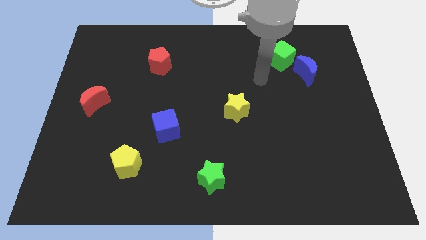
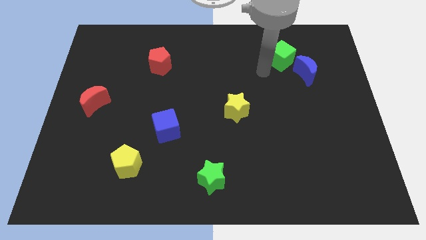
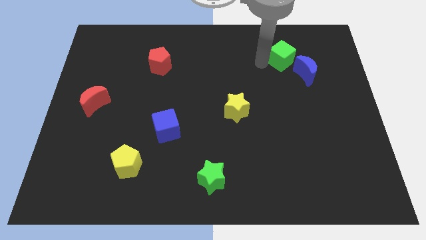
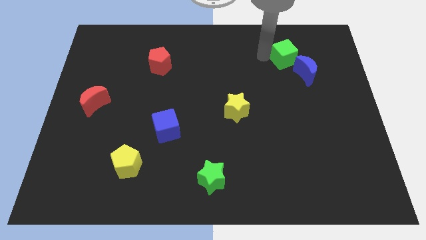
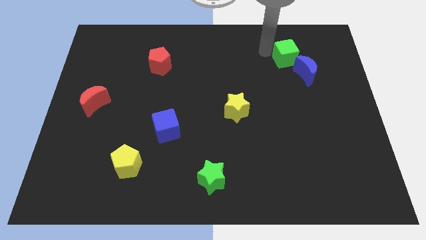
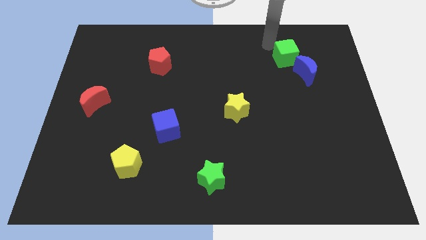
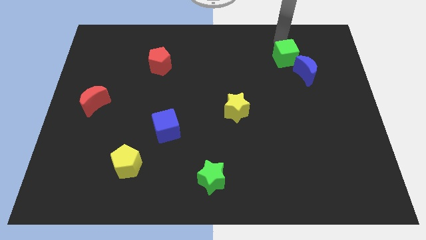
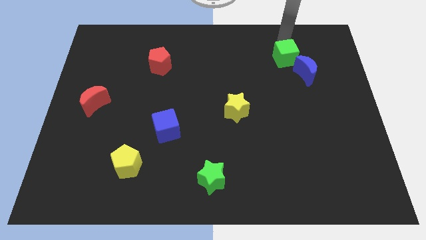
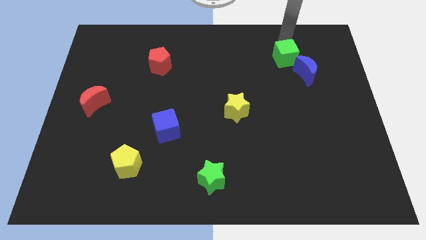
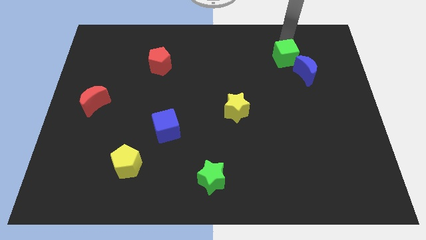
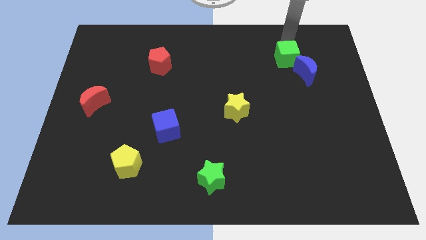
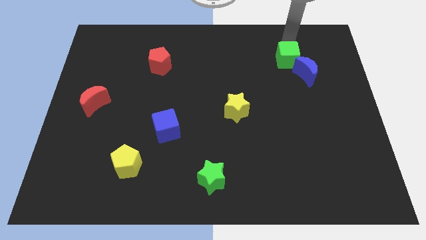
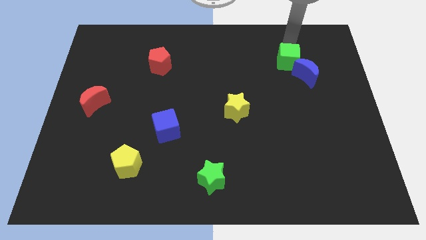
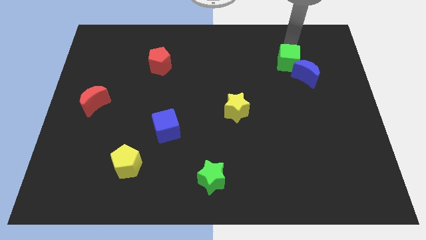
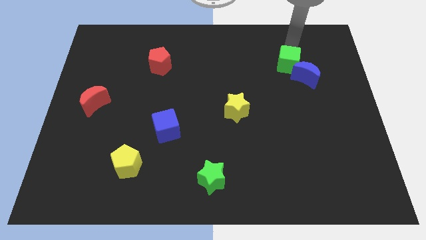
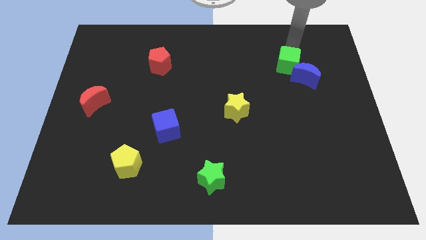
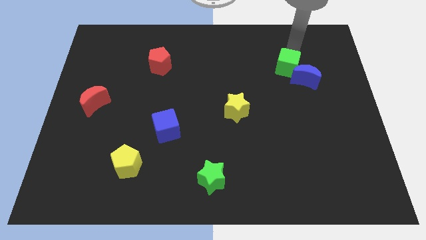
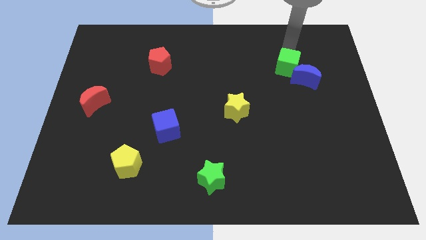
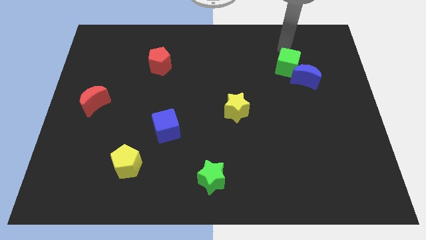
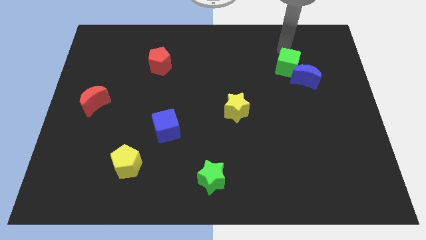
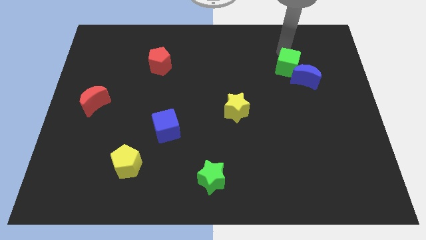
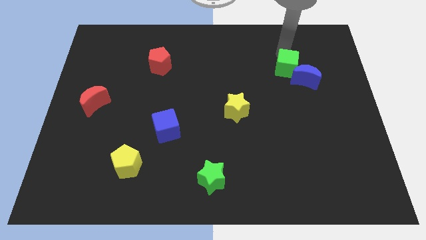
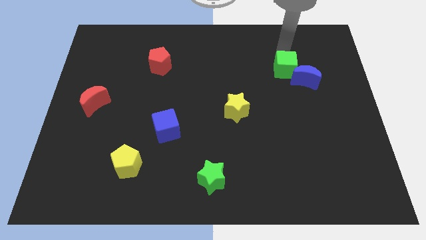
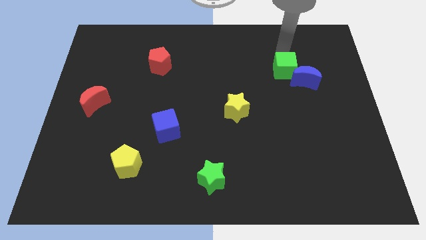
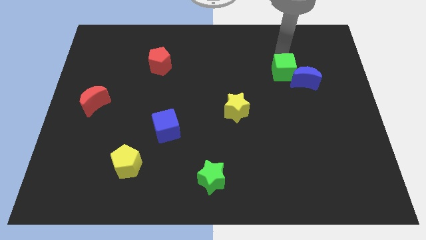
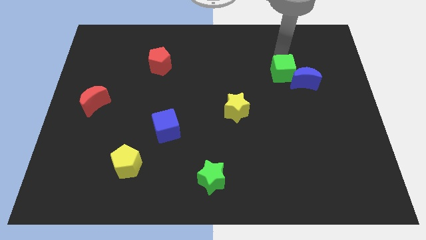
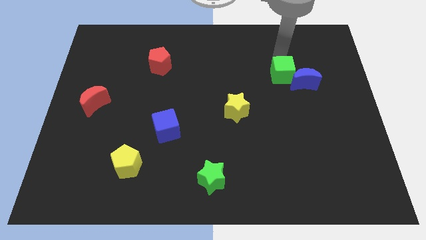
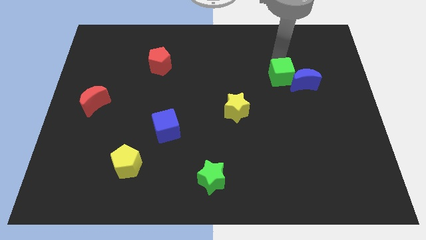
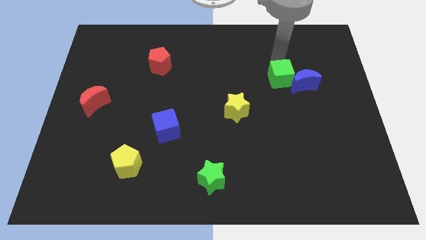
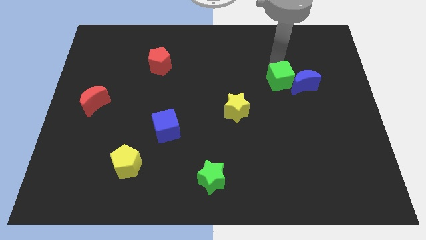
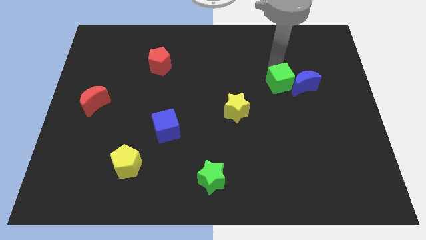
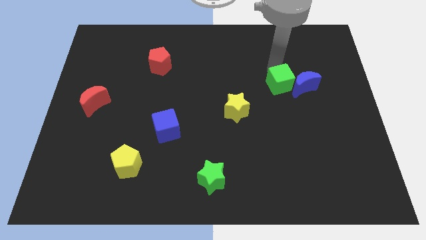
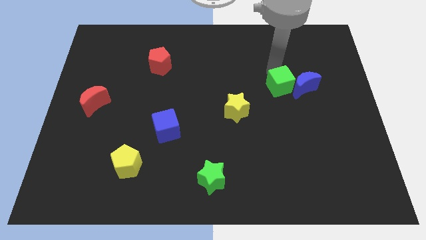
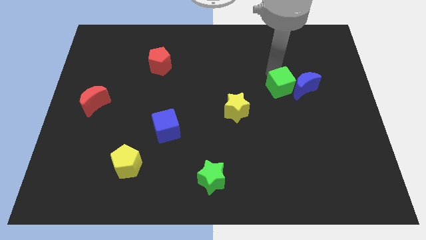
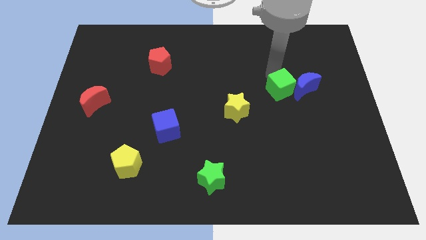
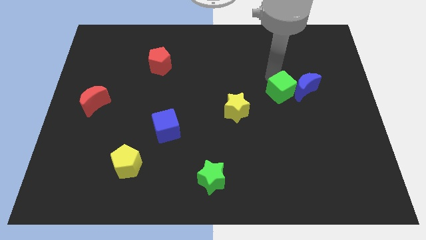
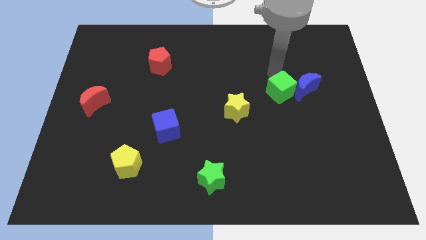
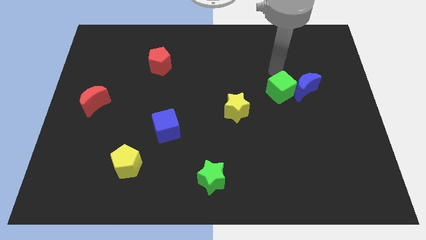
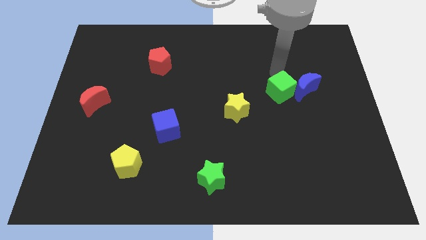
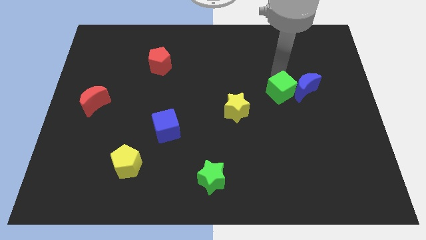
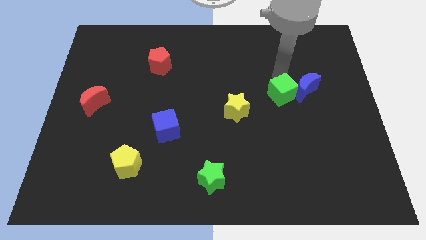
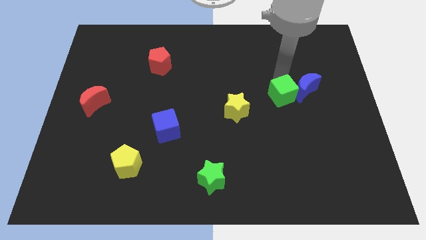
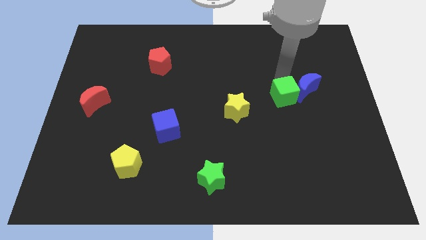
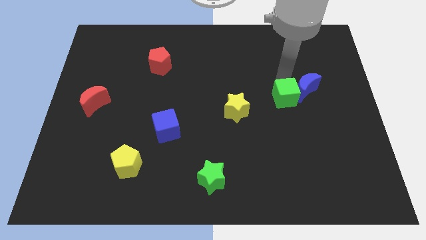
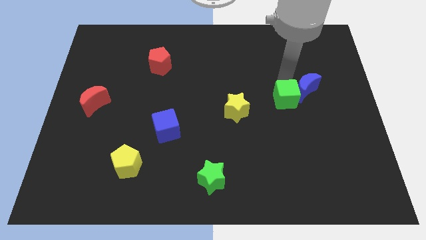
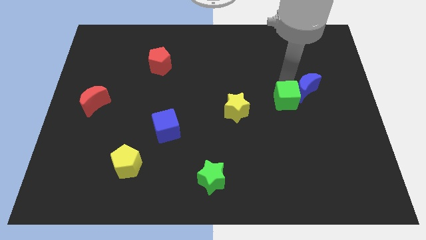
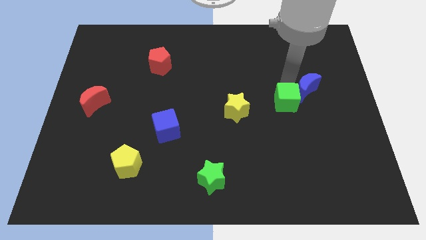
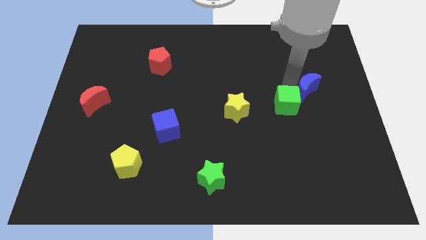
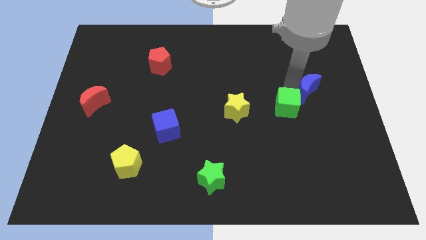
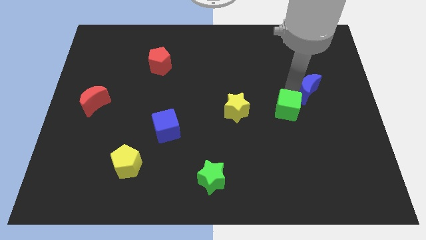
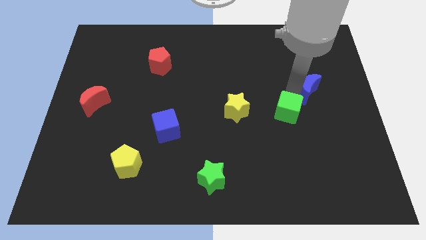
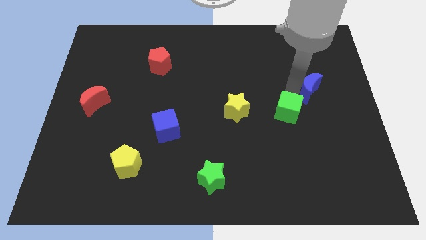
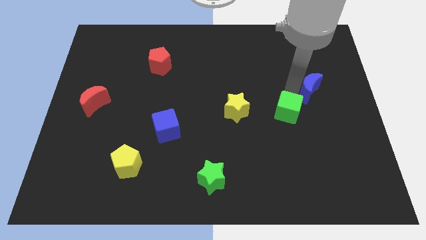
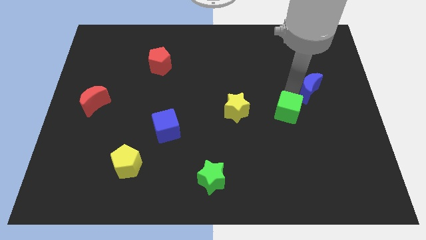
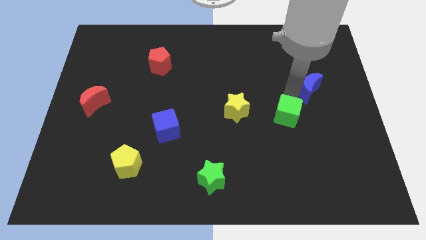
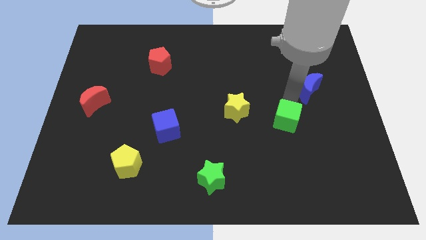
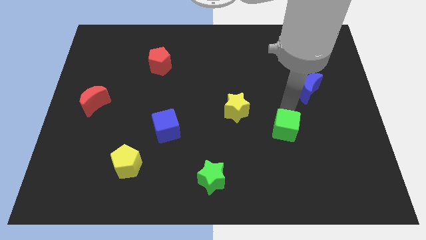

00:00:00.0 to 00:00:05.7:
move the green cube down

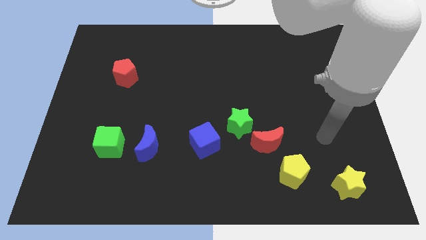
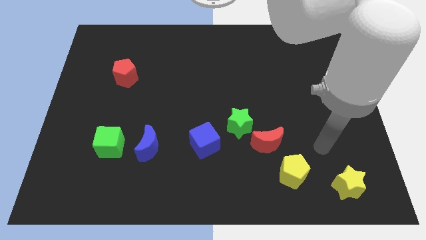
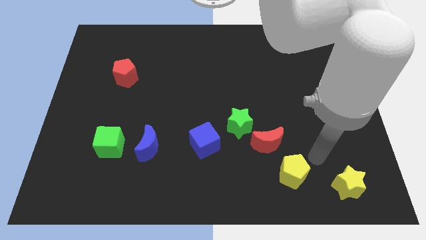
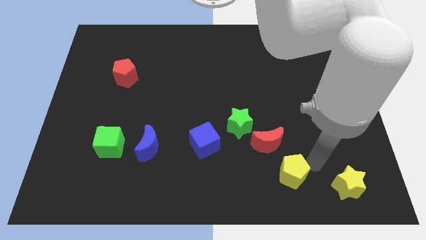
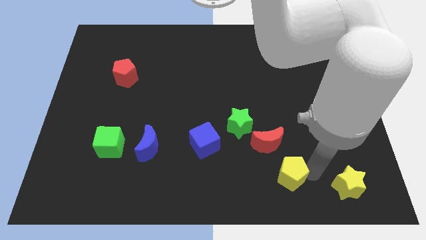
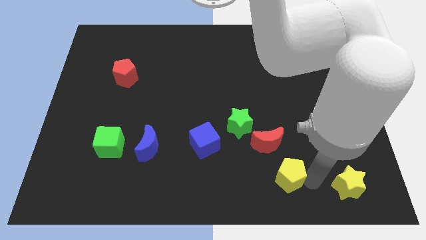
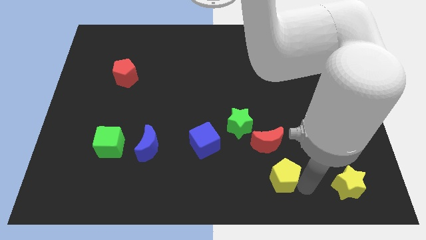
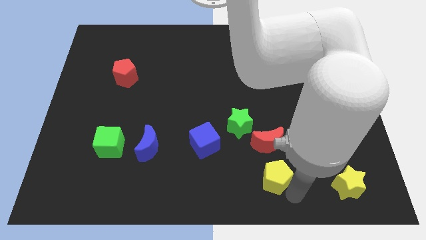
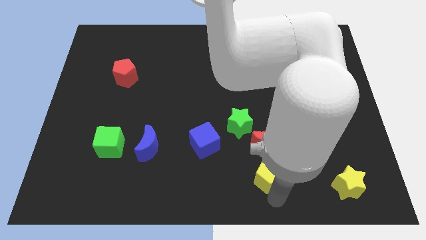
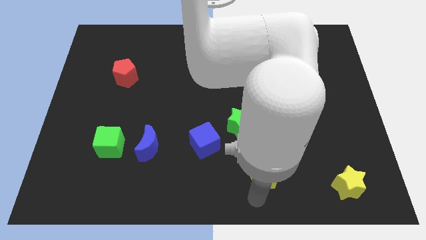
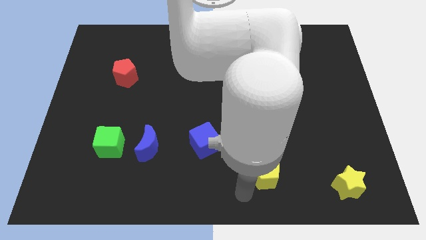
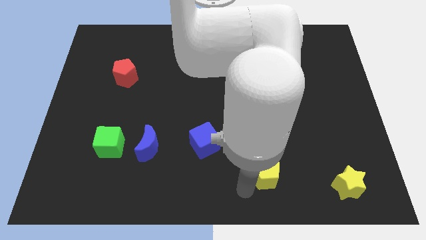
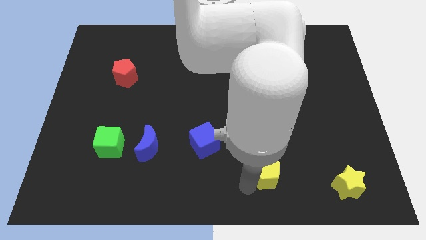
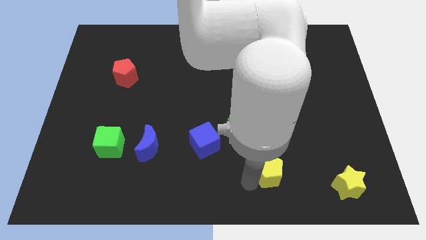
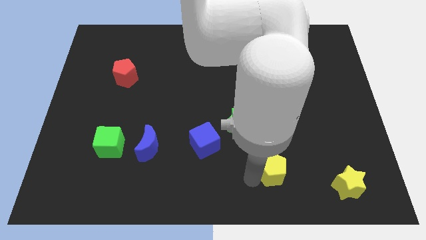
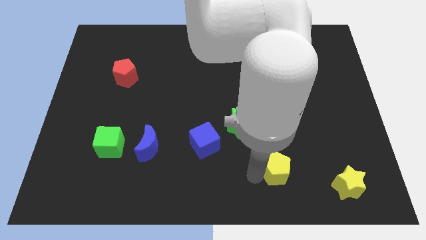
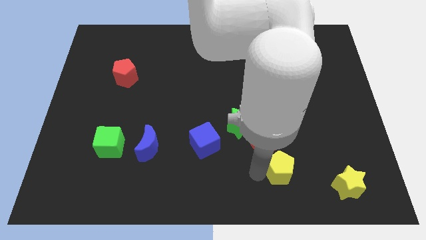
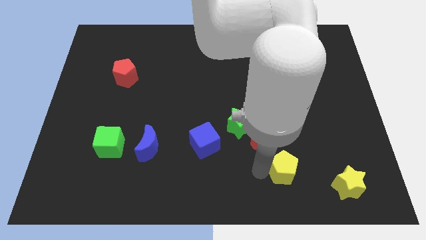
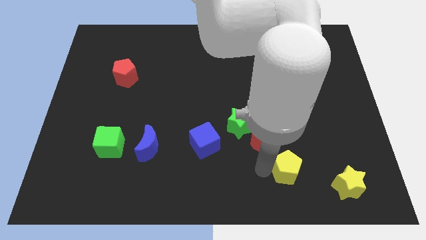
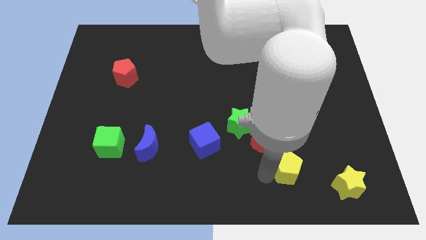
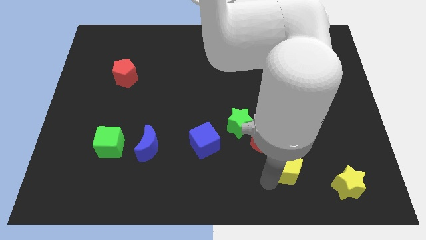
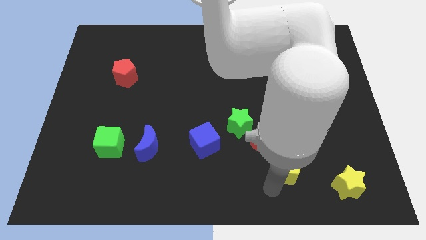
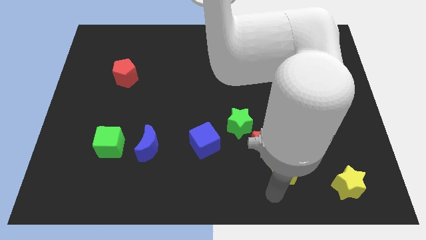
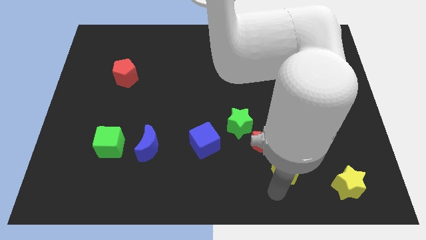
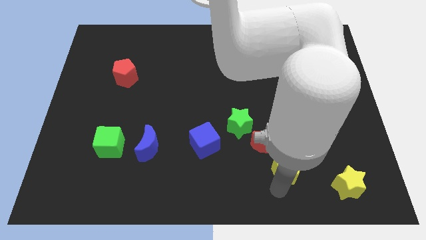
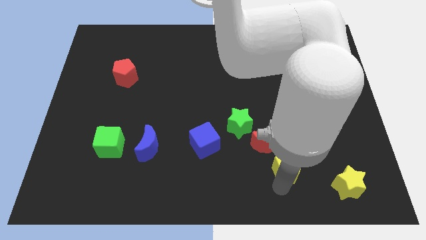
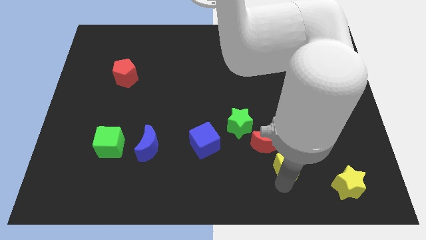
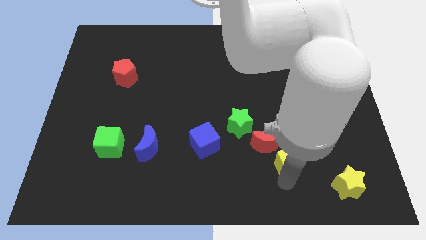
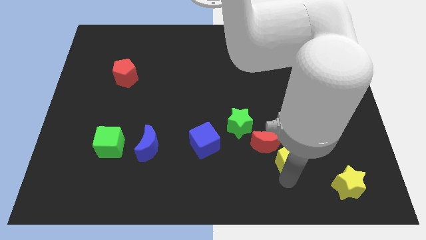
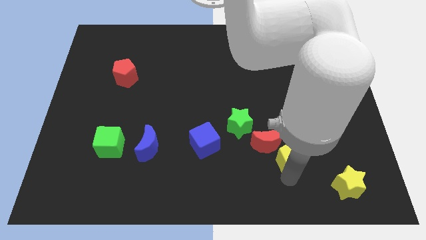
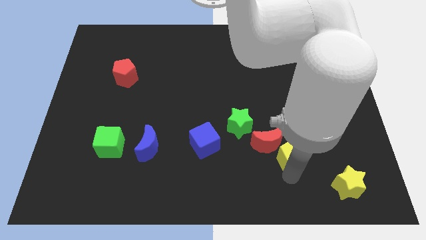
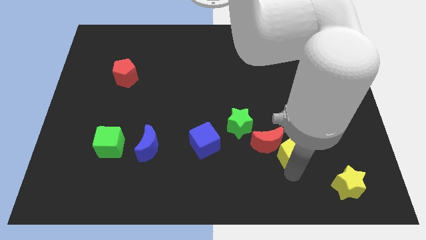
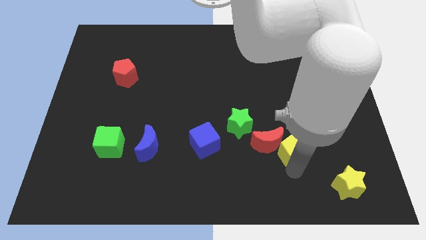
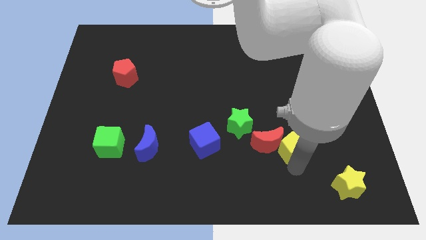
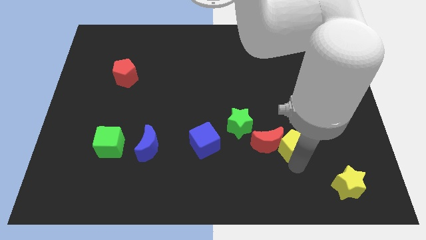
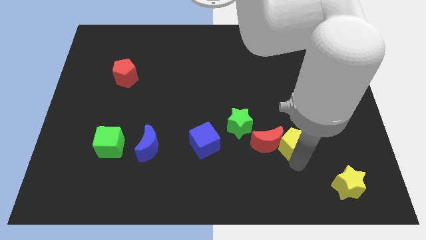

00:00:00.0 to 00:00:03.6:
slightly push the yellow pentagon up
